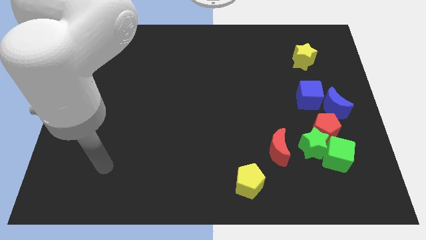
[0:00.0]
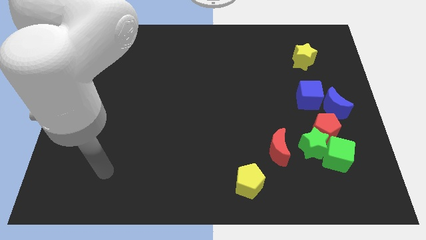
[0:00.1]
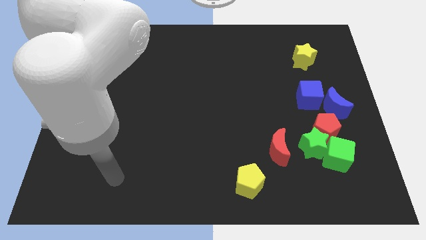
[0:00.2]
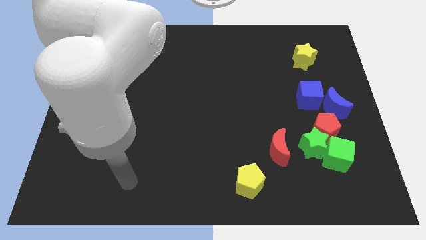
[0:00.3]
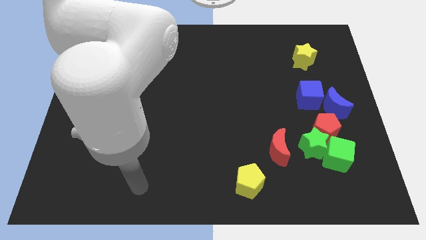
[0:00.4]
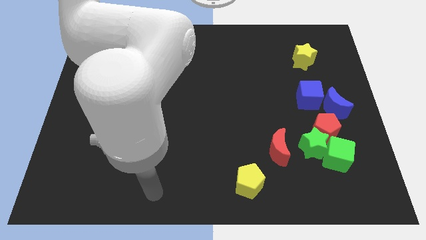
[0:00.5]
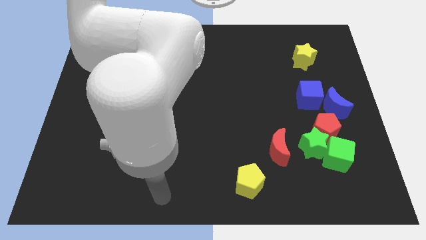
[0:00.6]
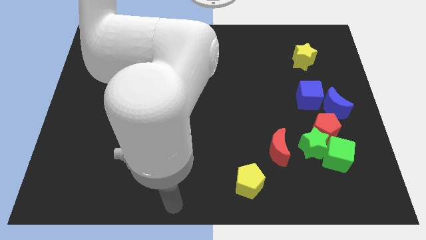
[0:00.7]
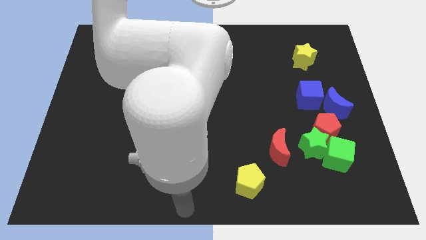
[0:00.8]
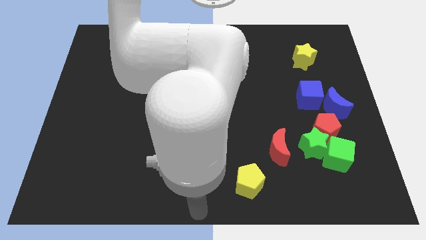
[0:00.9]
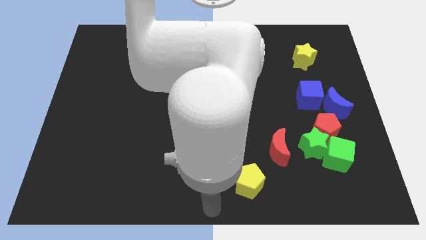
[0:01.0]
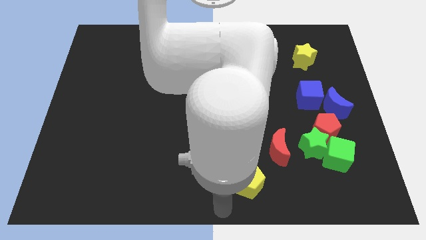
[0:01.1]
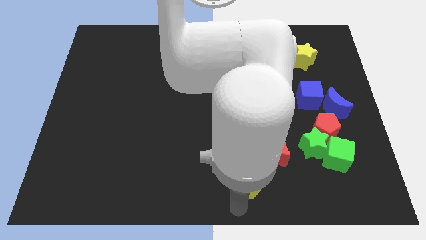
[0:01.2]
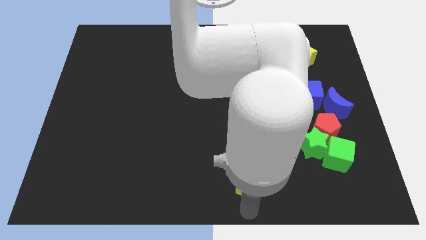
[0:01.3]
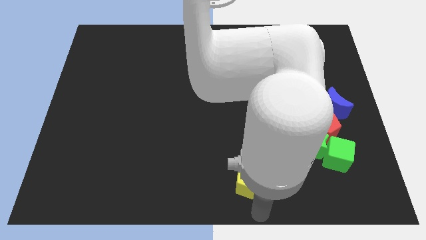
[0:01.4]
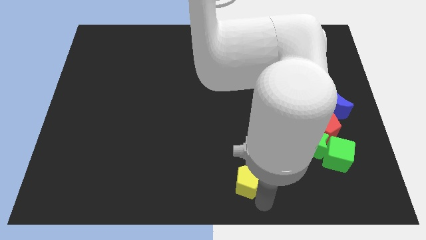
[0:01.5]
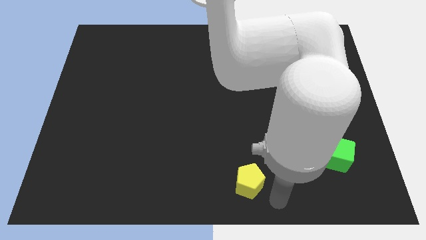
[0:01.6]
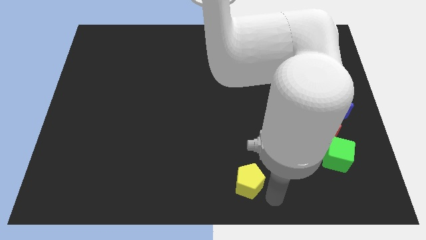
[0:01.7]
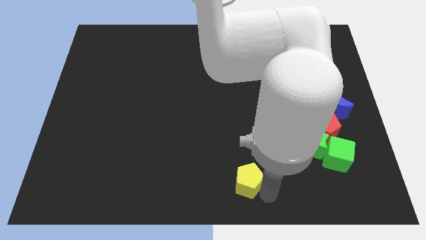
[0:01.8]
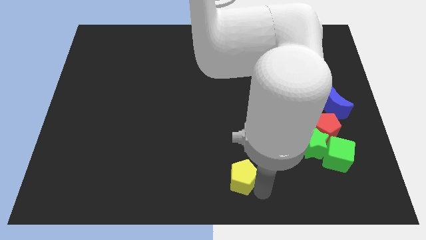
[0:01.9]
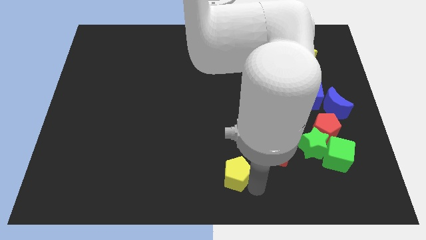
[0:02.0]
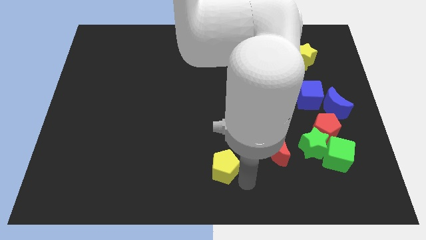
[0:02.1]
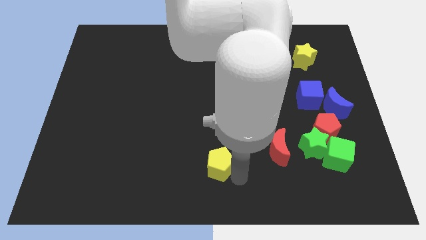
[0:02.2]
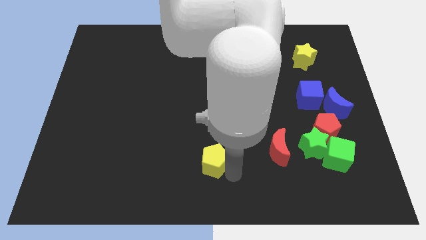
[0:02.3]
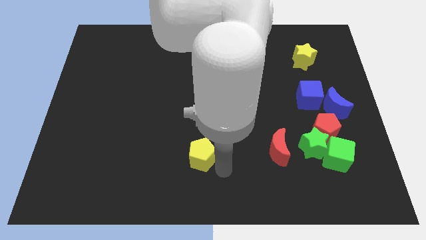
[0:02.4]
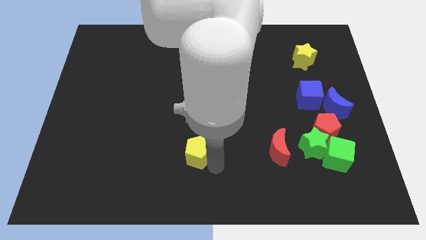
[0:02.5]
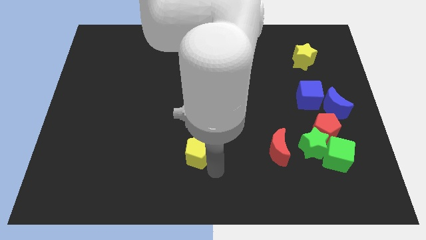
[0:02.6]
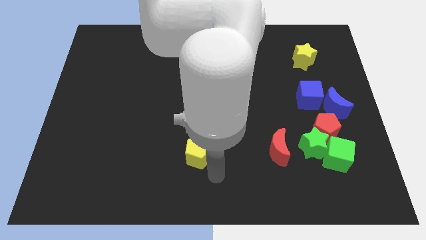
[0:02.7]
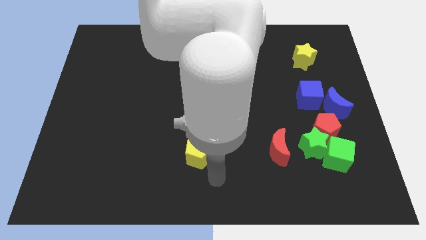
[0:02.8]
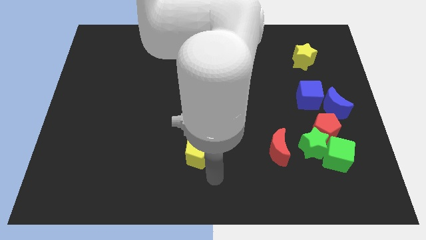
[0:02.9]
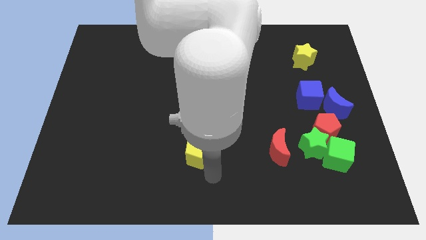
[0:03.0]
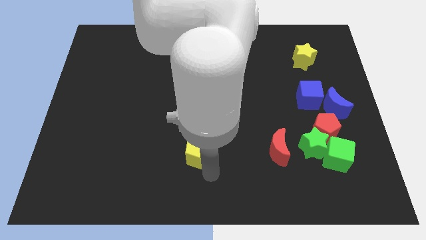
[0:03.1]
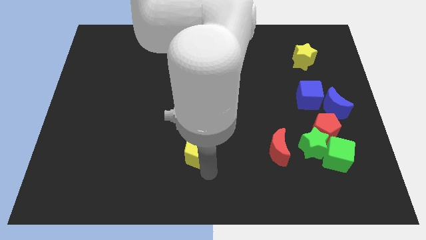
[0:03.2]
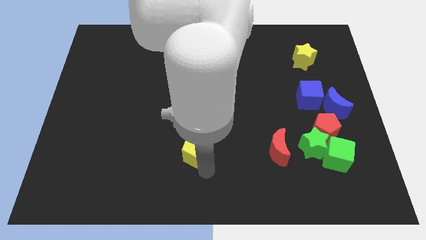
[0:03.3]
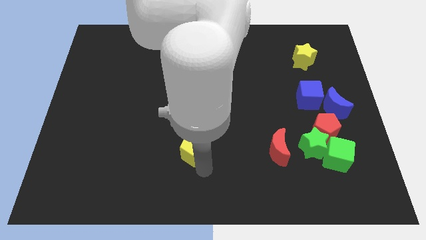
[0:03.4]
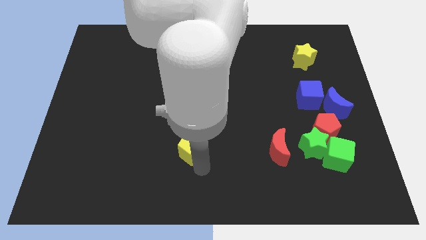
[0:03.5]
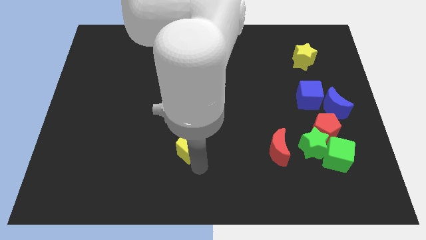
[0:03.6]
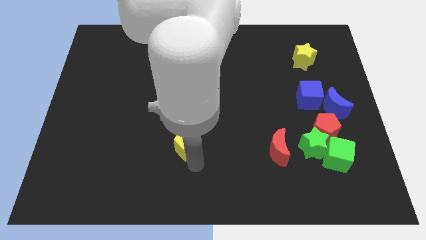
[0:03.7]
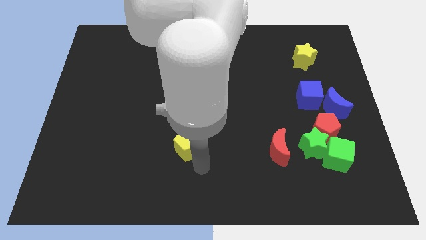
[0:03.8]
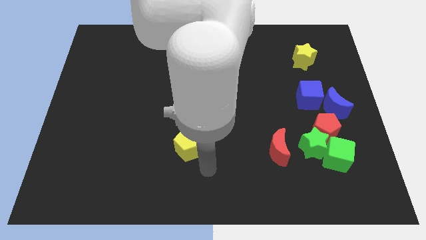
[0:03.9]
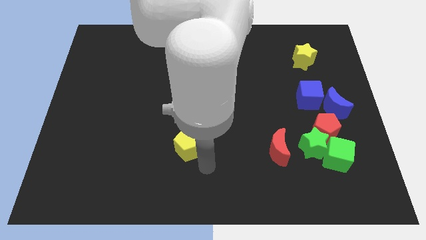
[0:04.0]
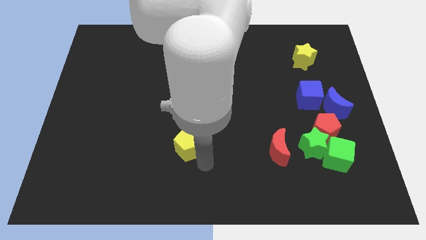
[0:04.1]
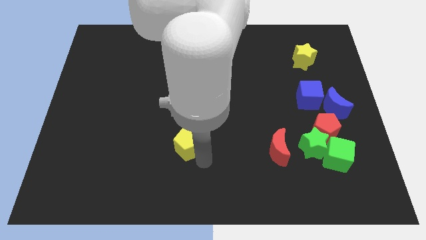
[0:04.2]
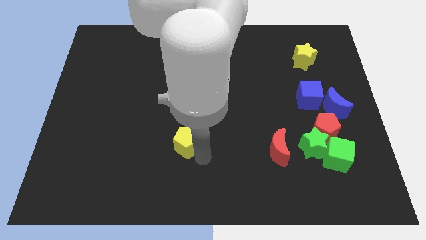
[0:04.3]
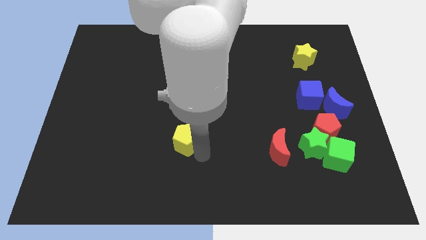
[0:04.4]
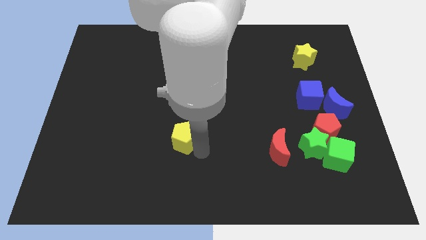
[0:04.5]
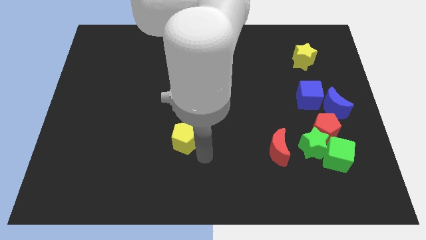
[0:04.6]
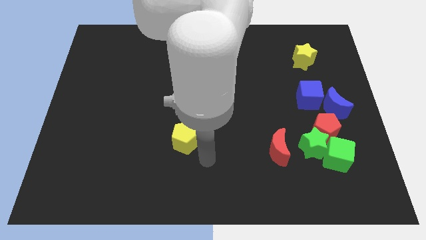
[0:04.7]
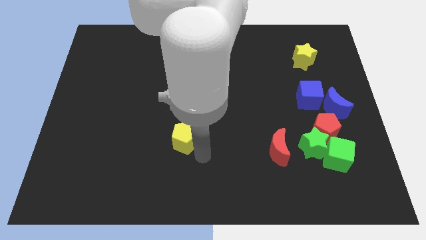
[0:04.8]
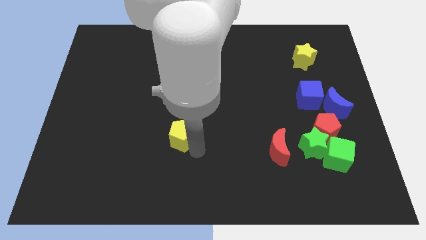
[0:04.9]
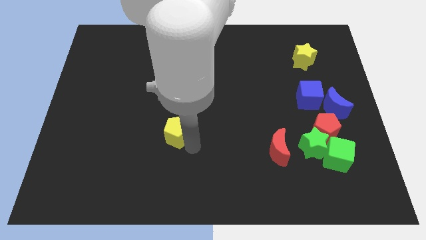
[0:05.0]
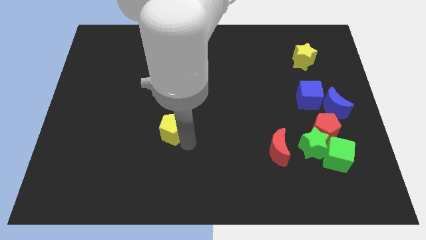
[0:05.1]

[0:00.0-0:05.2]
move the yellow pentagon up and to the left diagonally

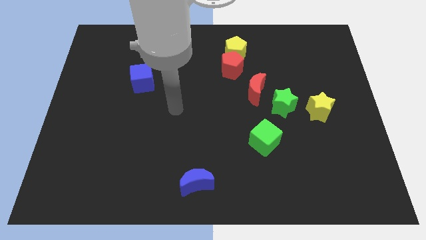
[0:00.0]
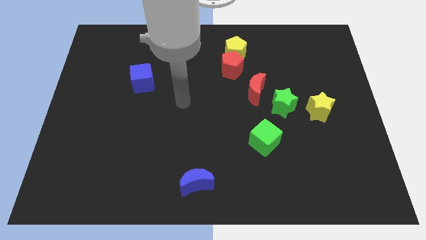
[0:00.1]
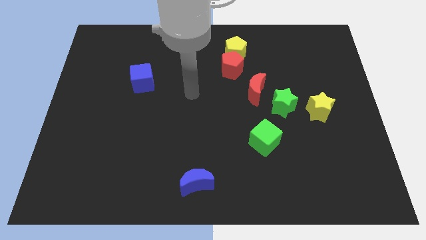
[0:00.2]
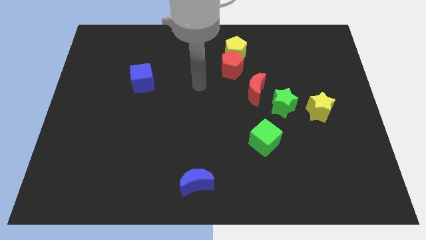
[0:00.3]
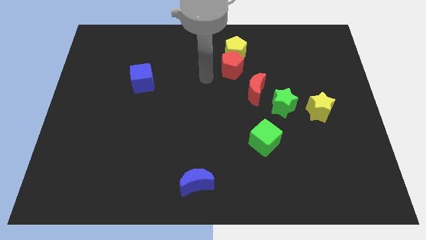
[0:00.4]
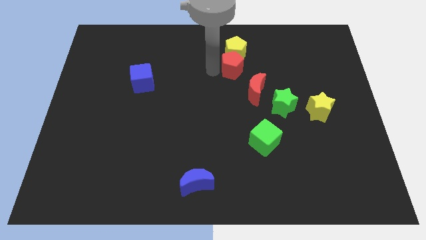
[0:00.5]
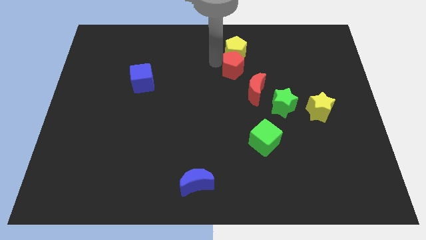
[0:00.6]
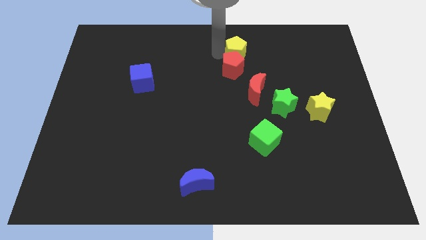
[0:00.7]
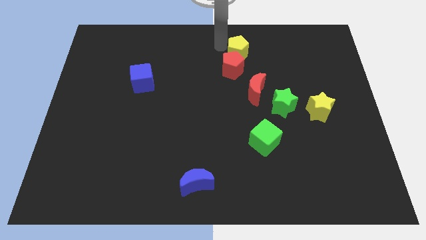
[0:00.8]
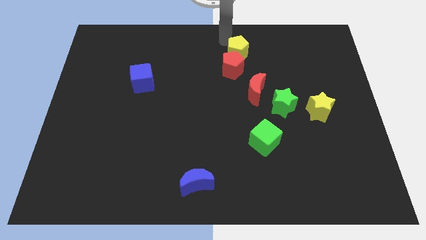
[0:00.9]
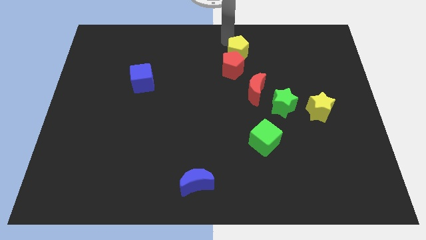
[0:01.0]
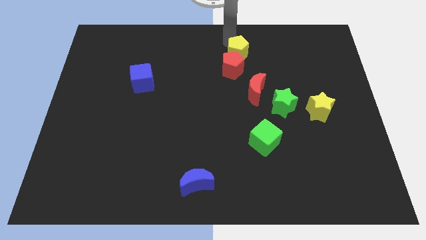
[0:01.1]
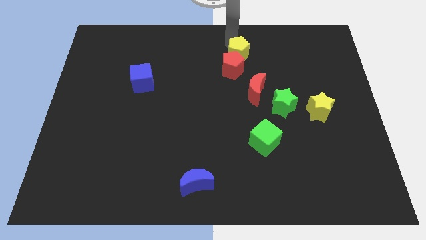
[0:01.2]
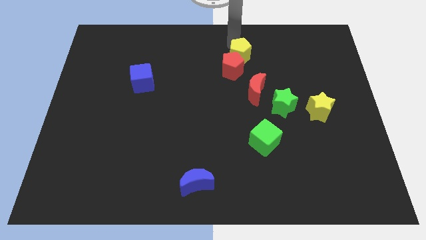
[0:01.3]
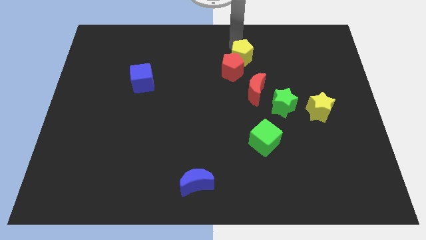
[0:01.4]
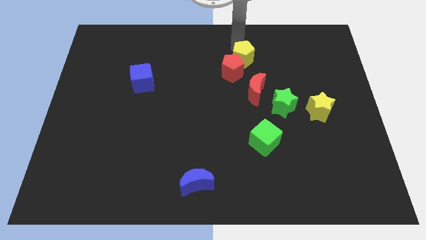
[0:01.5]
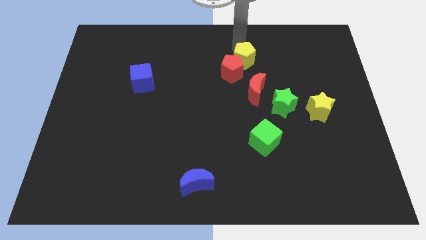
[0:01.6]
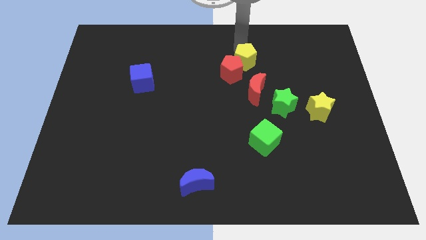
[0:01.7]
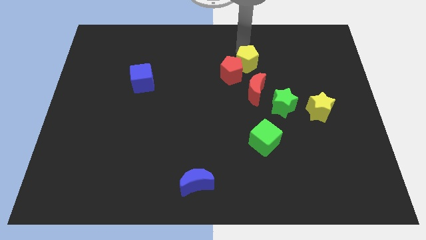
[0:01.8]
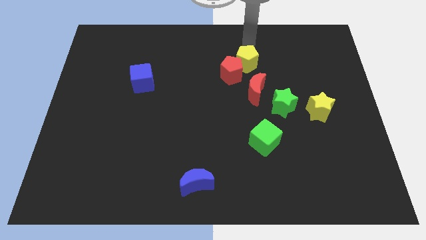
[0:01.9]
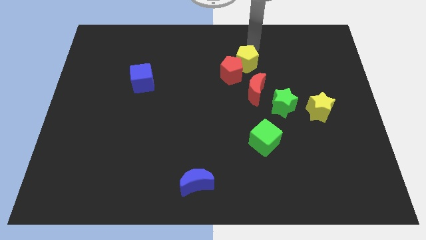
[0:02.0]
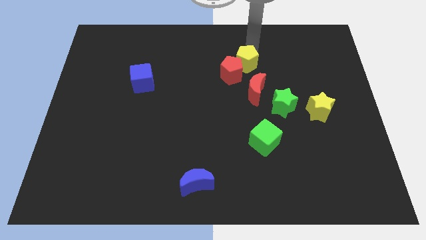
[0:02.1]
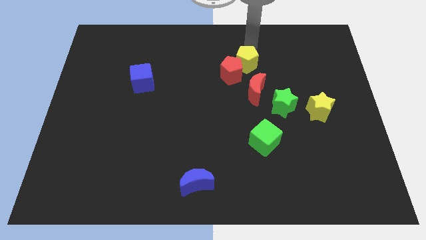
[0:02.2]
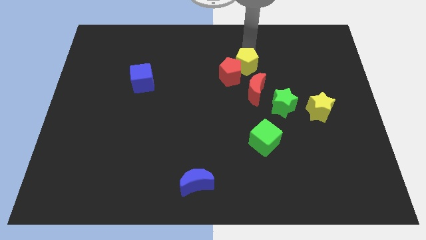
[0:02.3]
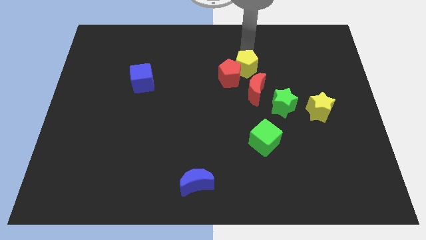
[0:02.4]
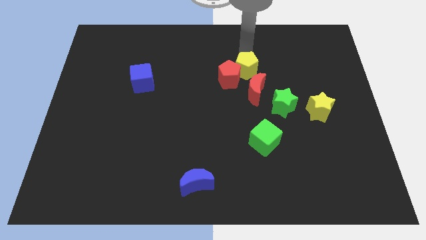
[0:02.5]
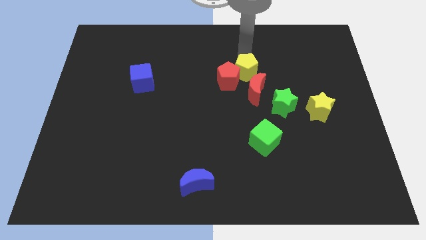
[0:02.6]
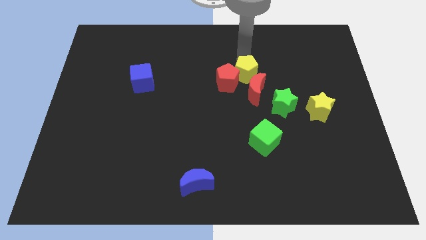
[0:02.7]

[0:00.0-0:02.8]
slightly slide the yellow pentagon downwards
